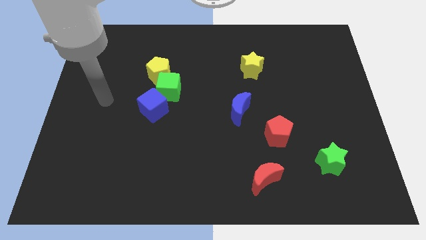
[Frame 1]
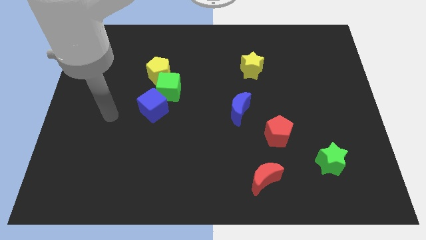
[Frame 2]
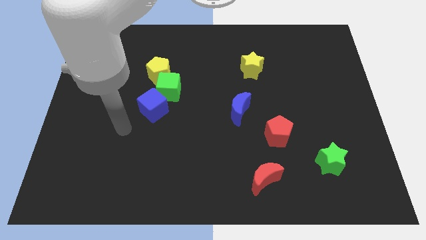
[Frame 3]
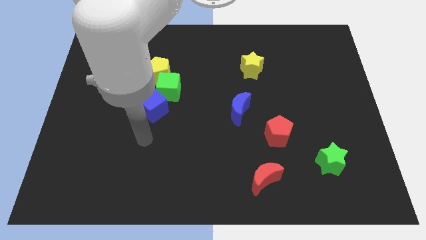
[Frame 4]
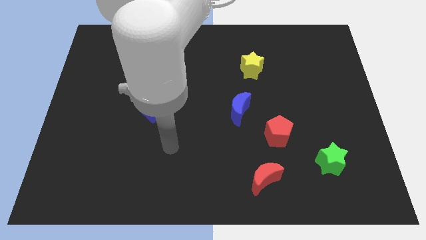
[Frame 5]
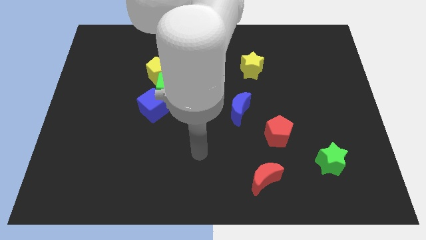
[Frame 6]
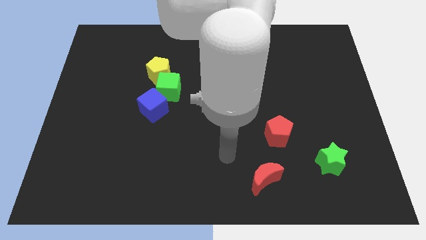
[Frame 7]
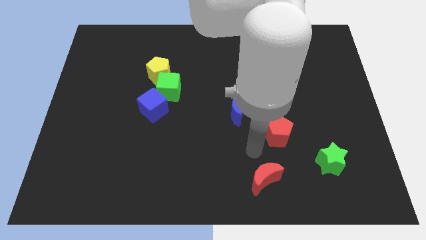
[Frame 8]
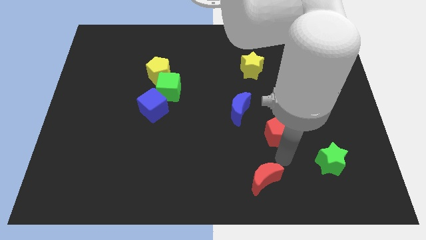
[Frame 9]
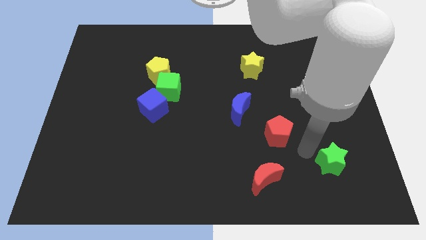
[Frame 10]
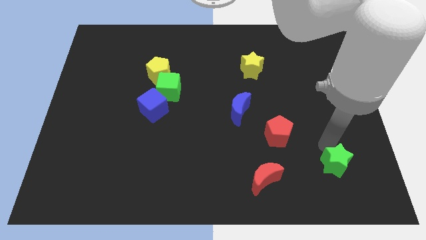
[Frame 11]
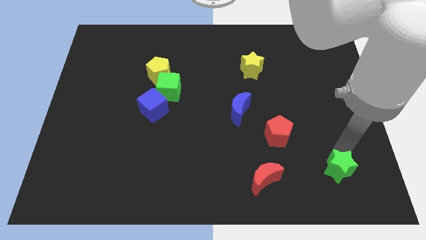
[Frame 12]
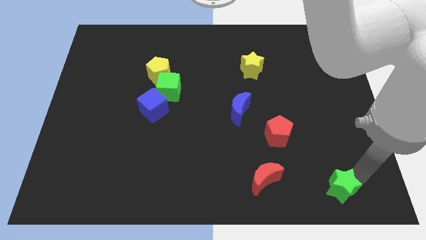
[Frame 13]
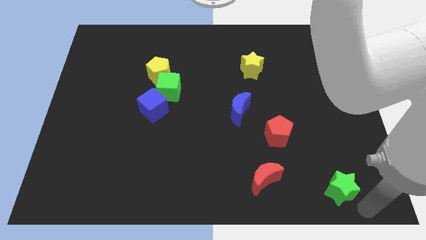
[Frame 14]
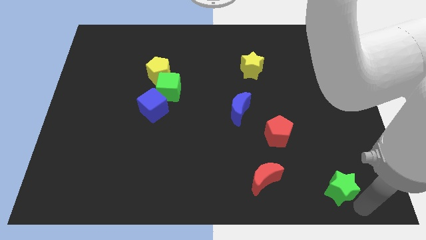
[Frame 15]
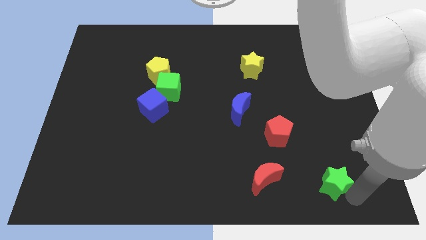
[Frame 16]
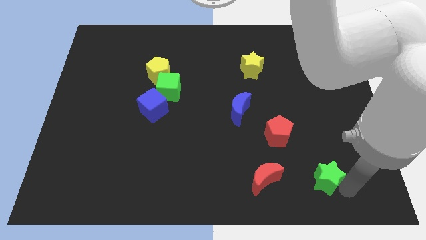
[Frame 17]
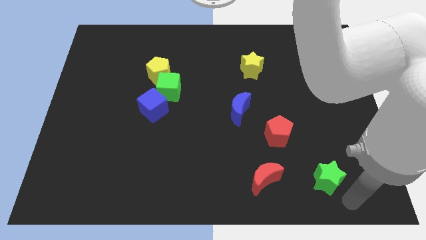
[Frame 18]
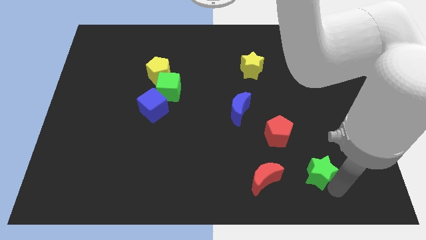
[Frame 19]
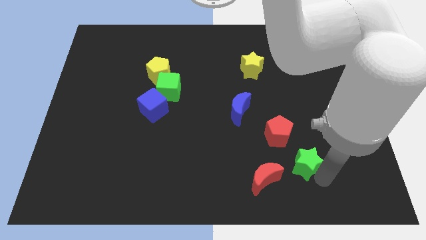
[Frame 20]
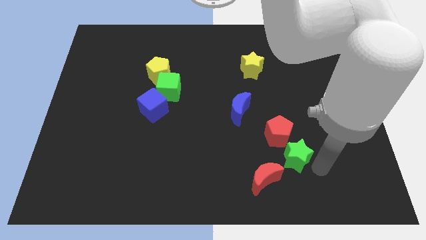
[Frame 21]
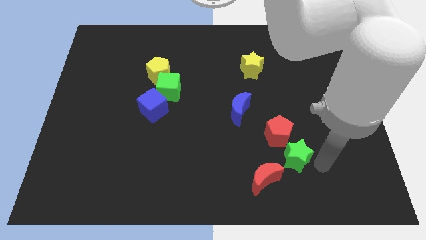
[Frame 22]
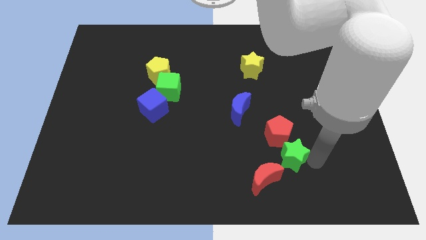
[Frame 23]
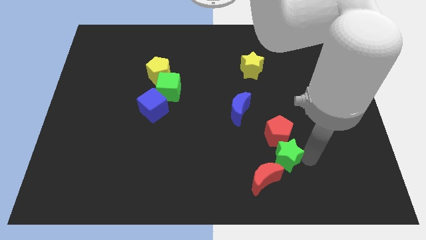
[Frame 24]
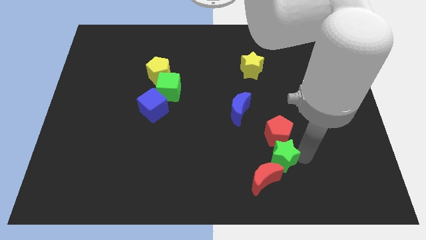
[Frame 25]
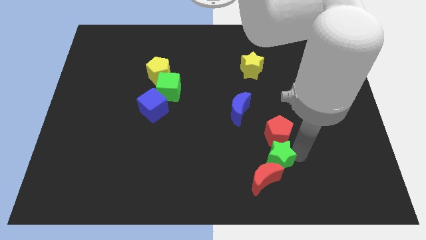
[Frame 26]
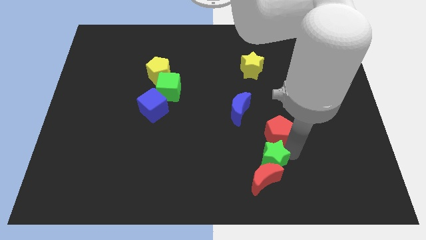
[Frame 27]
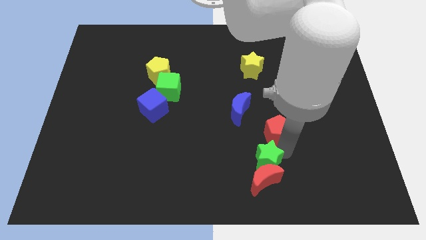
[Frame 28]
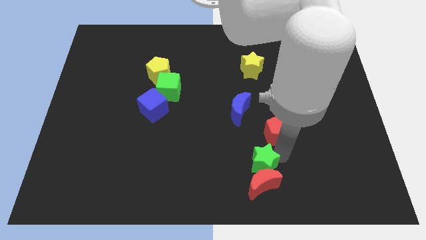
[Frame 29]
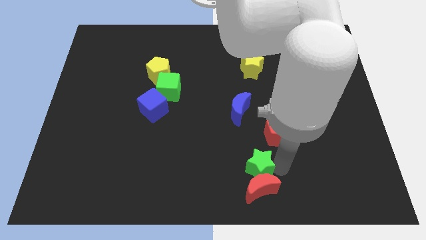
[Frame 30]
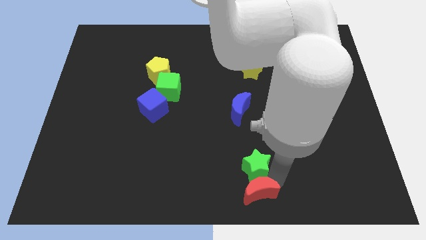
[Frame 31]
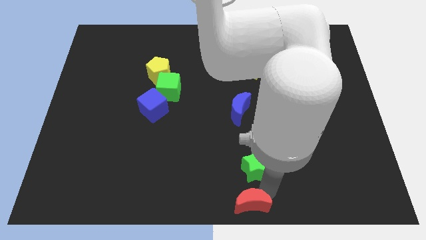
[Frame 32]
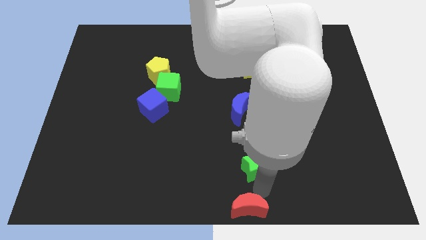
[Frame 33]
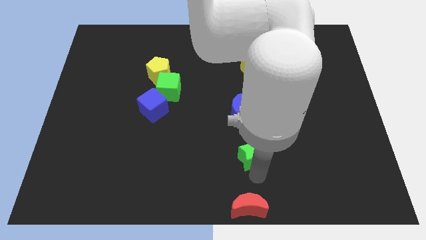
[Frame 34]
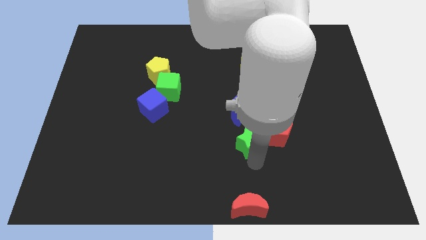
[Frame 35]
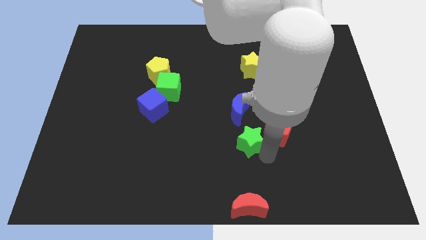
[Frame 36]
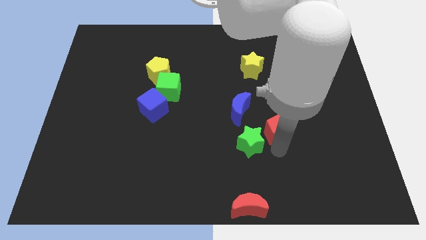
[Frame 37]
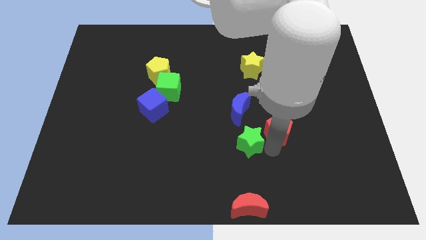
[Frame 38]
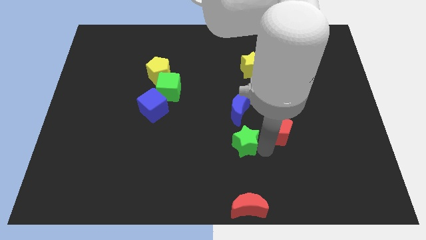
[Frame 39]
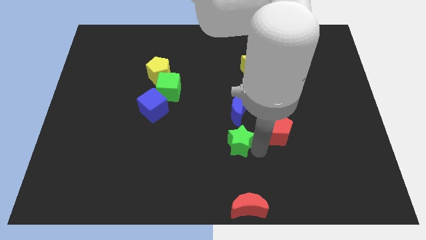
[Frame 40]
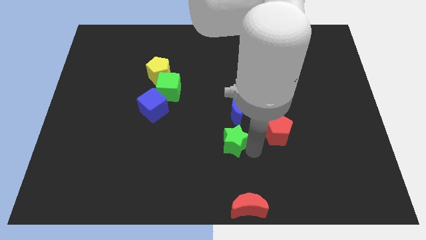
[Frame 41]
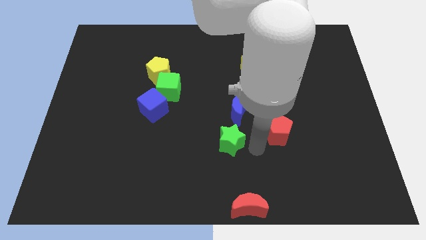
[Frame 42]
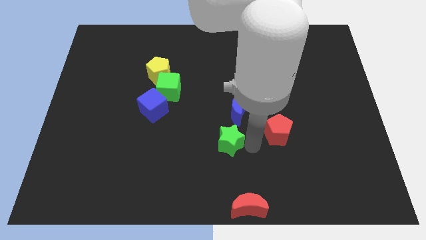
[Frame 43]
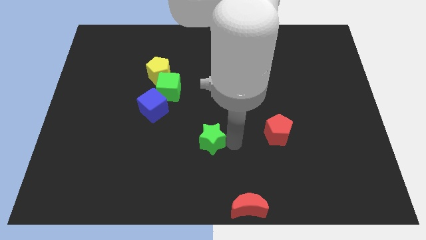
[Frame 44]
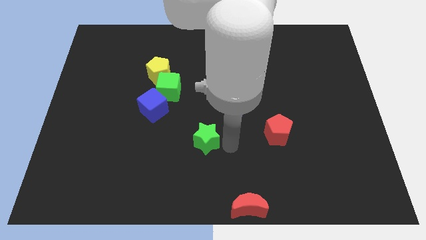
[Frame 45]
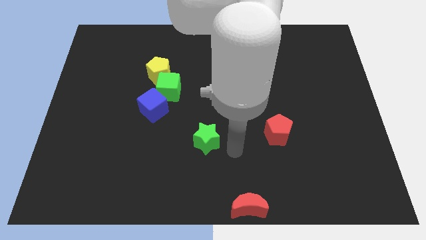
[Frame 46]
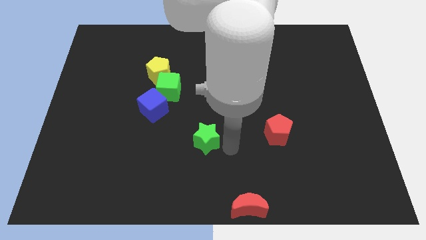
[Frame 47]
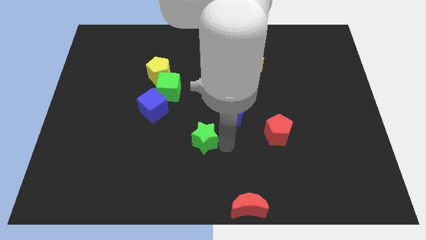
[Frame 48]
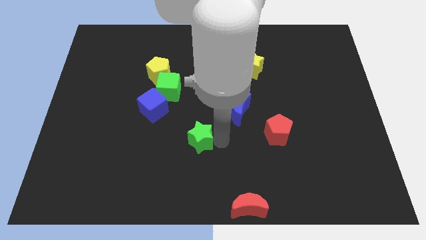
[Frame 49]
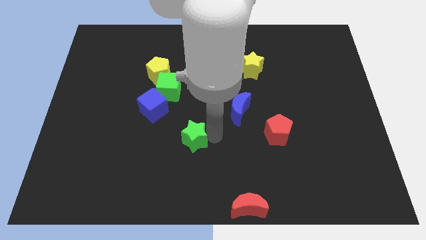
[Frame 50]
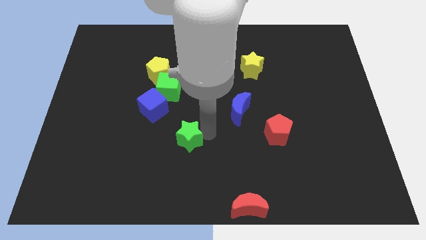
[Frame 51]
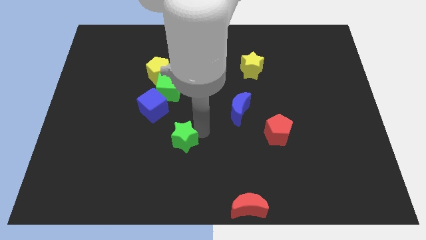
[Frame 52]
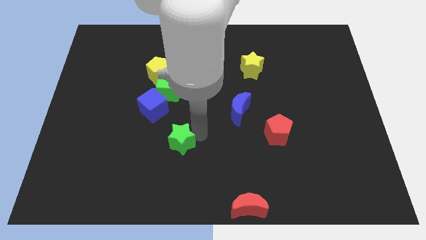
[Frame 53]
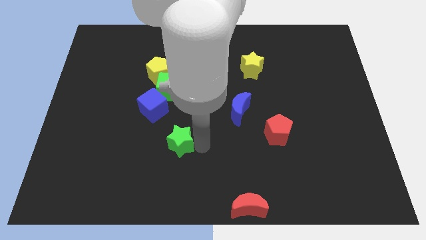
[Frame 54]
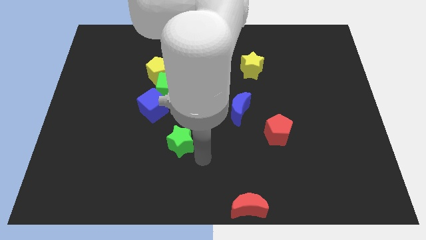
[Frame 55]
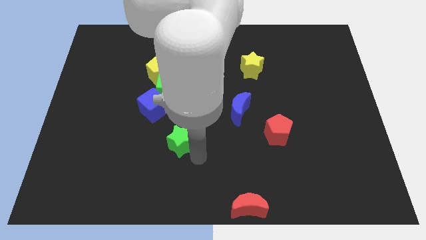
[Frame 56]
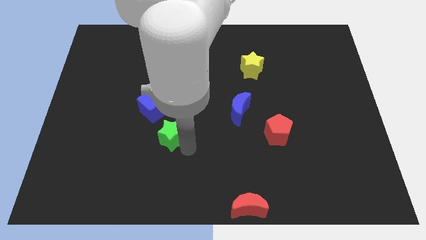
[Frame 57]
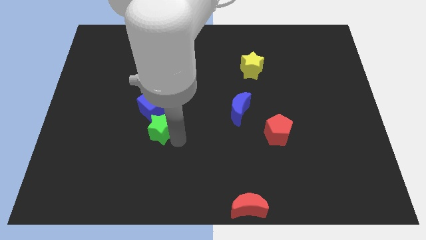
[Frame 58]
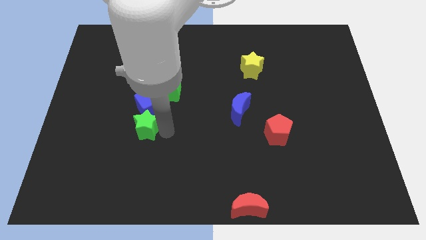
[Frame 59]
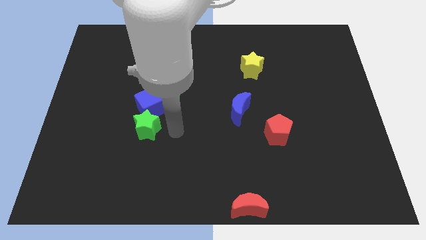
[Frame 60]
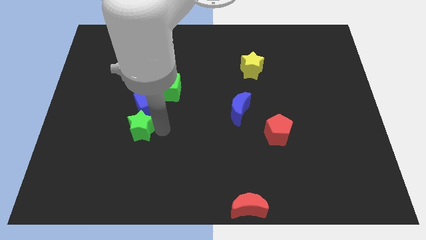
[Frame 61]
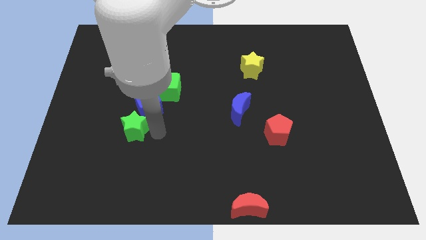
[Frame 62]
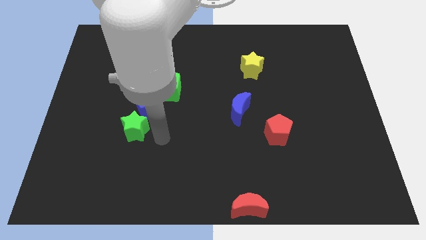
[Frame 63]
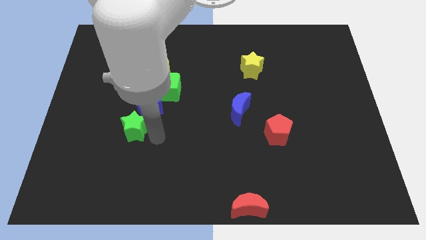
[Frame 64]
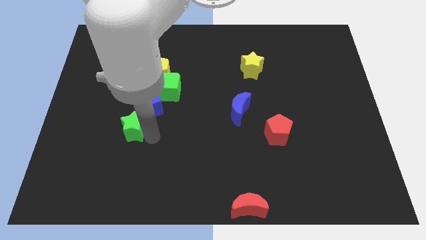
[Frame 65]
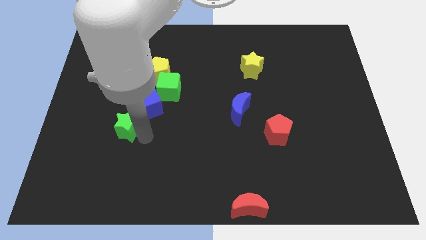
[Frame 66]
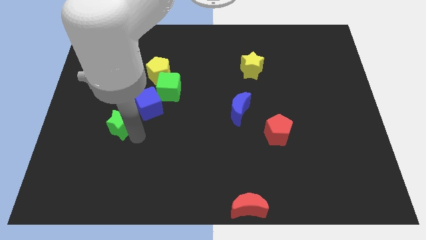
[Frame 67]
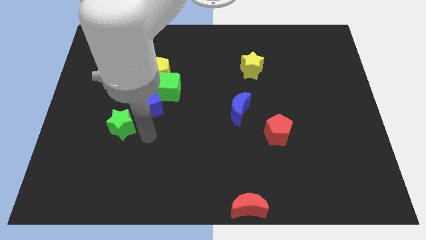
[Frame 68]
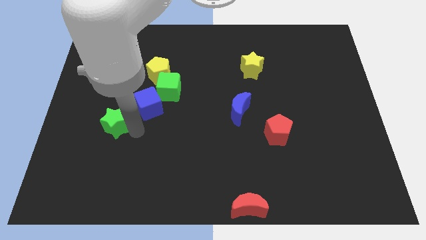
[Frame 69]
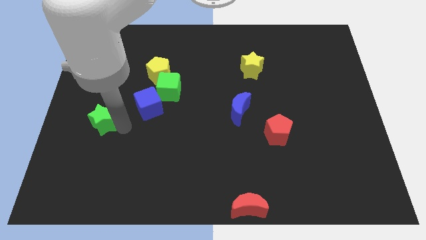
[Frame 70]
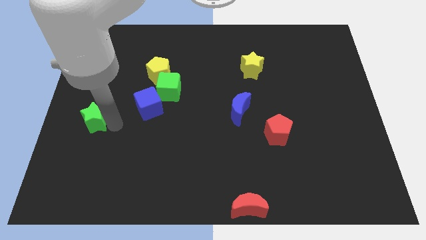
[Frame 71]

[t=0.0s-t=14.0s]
put the green star to the center left
